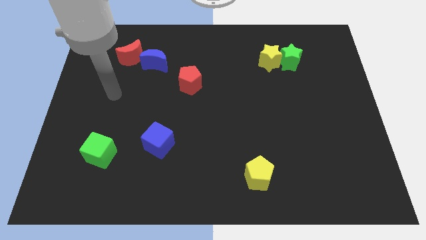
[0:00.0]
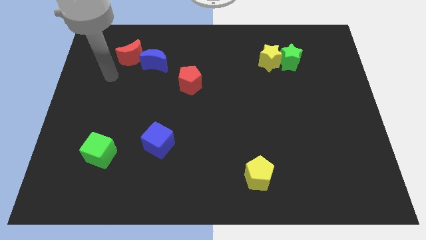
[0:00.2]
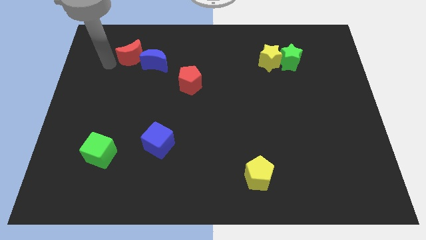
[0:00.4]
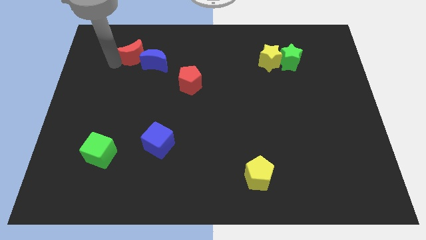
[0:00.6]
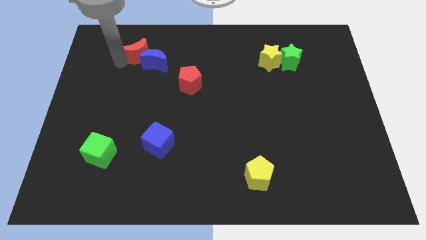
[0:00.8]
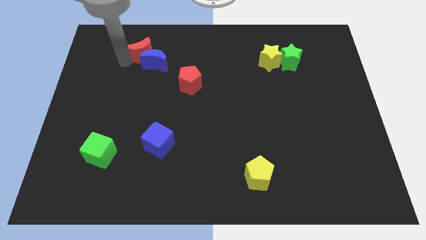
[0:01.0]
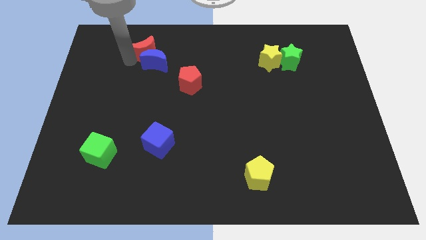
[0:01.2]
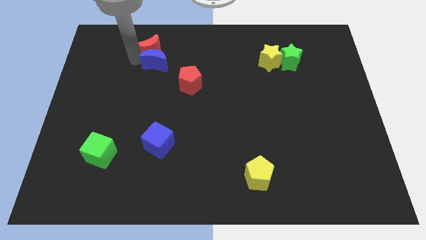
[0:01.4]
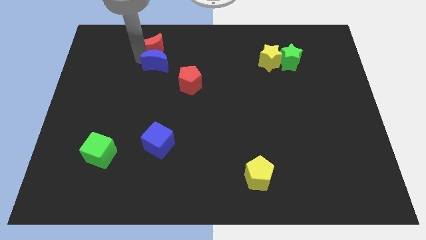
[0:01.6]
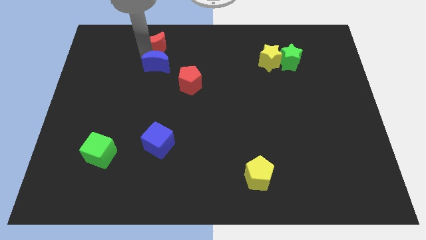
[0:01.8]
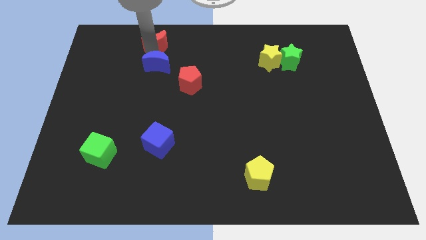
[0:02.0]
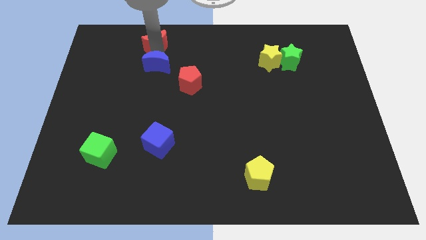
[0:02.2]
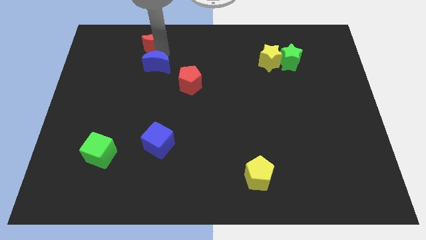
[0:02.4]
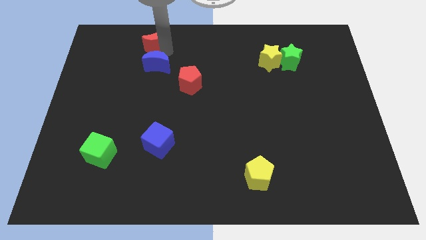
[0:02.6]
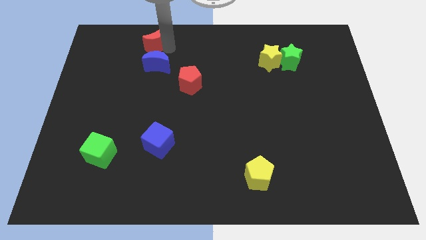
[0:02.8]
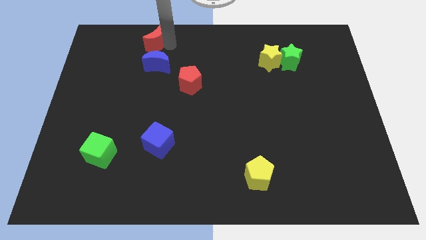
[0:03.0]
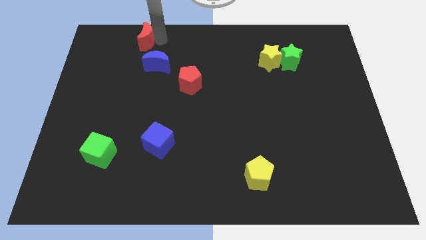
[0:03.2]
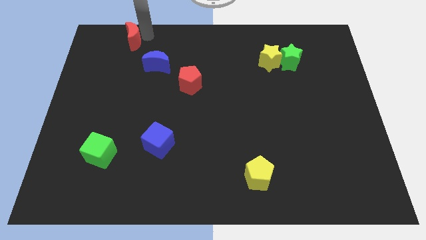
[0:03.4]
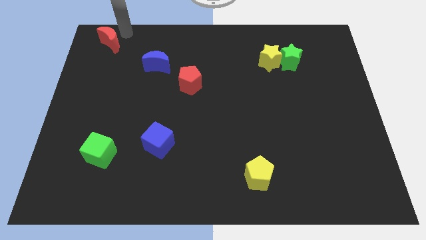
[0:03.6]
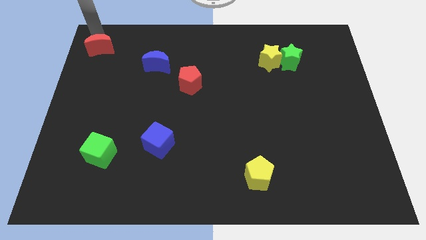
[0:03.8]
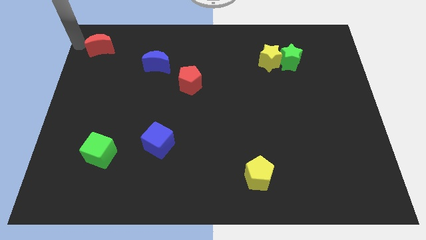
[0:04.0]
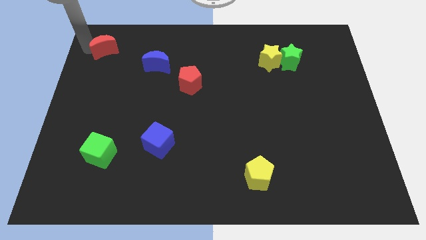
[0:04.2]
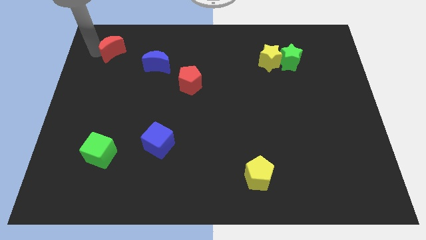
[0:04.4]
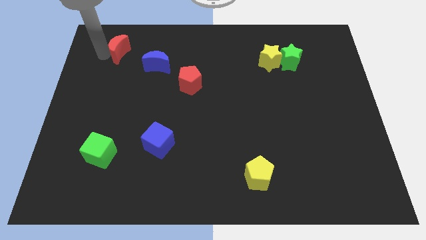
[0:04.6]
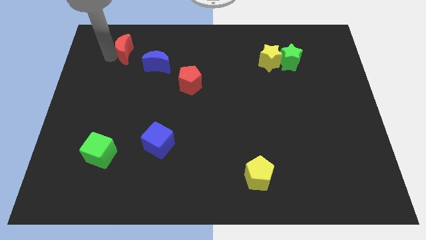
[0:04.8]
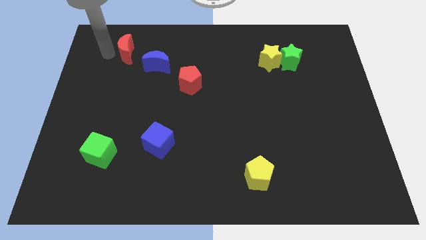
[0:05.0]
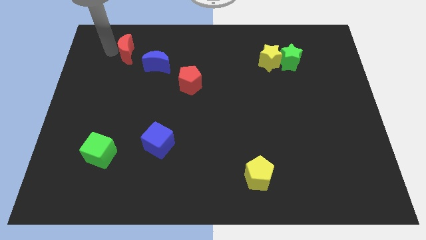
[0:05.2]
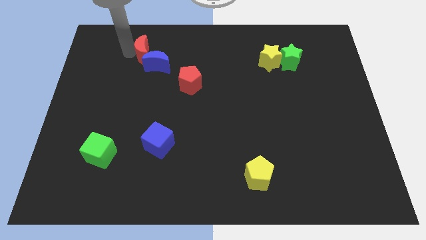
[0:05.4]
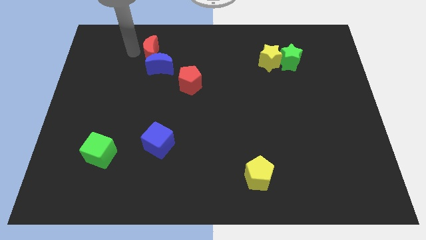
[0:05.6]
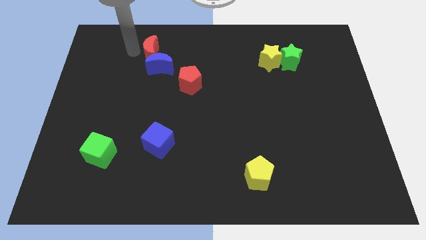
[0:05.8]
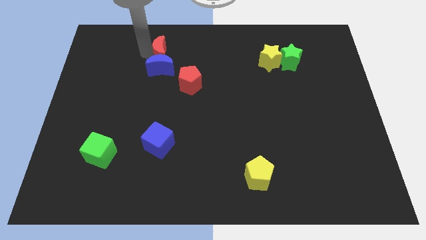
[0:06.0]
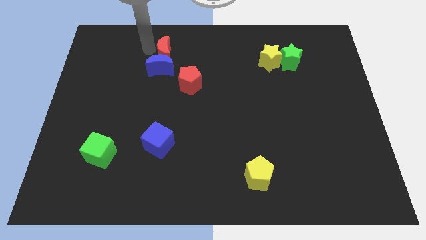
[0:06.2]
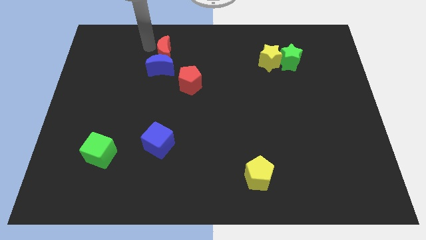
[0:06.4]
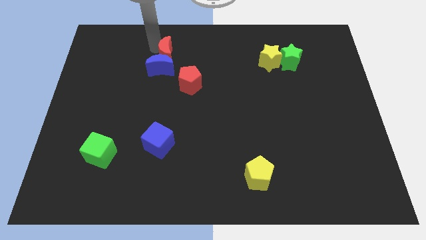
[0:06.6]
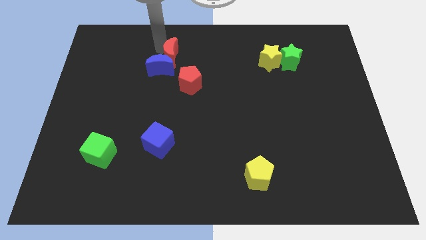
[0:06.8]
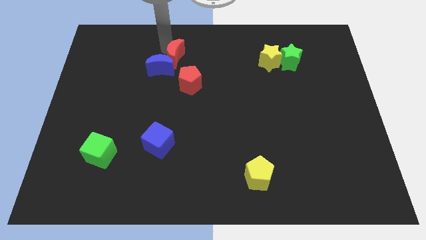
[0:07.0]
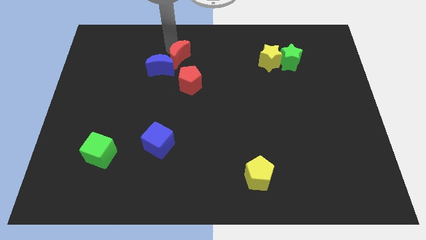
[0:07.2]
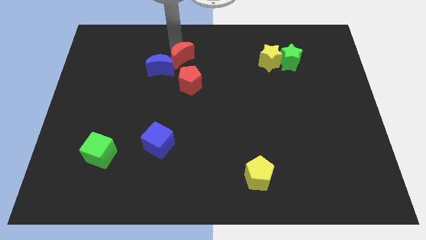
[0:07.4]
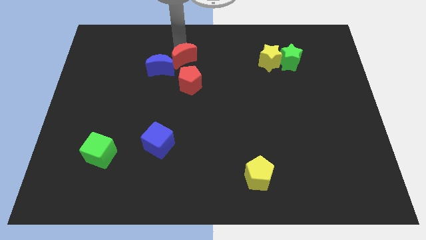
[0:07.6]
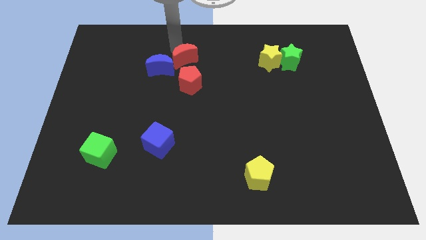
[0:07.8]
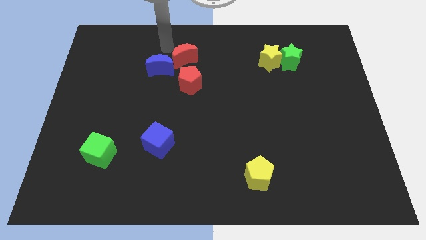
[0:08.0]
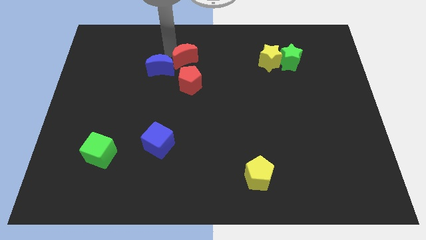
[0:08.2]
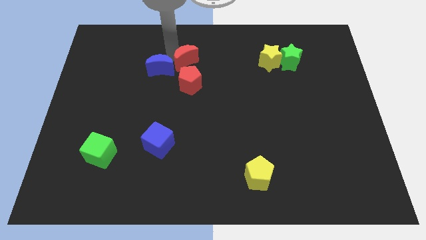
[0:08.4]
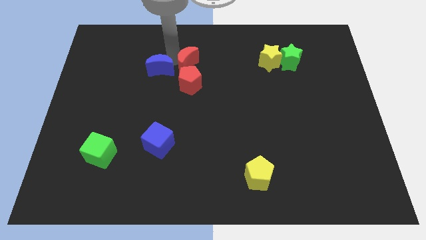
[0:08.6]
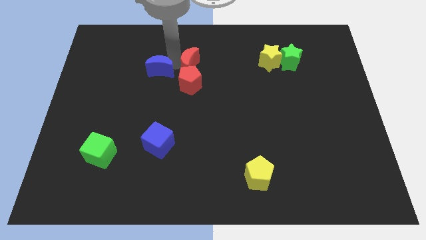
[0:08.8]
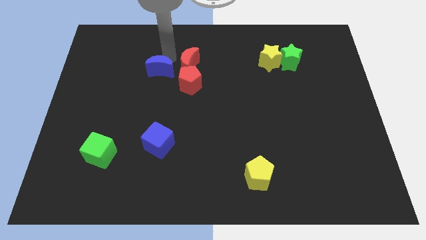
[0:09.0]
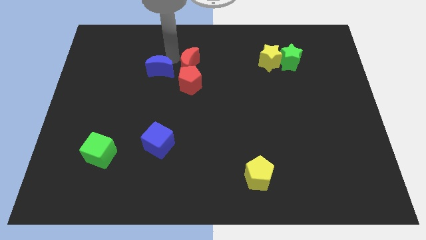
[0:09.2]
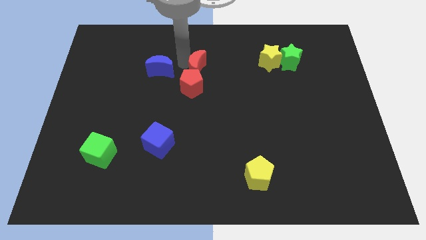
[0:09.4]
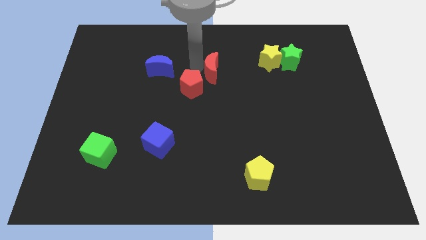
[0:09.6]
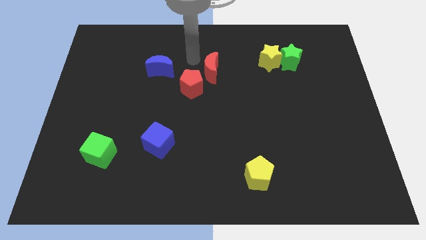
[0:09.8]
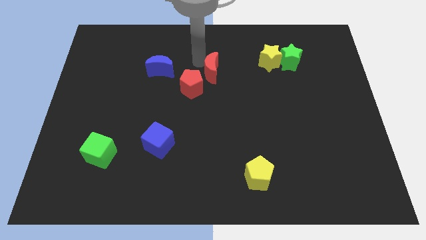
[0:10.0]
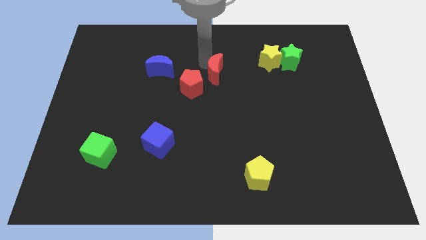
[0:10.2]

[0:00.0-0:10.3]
move the red moon just right of the red pentagon

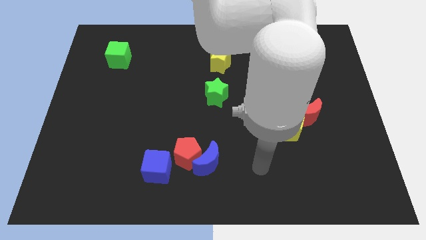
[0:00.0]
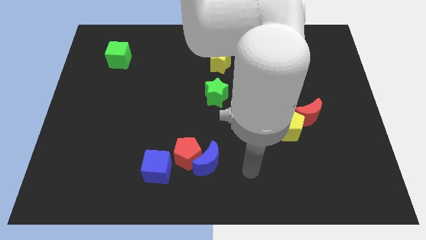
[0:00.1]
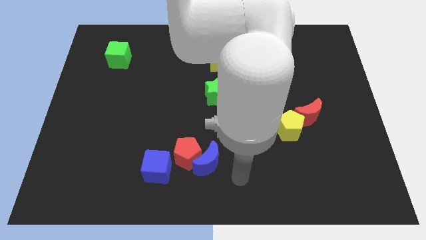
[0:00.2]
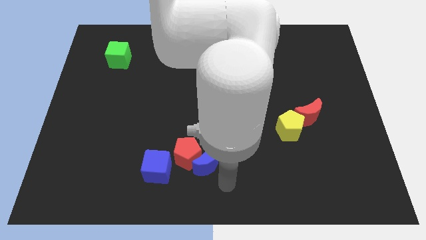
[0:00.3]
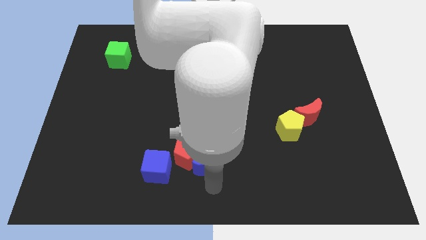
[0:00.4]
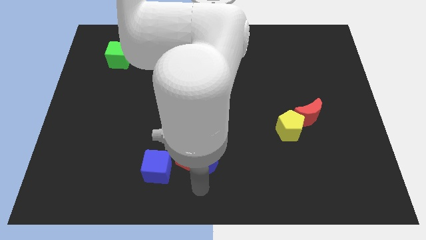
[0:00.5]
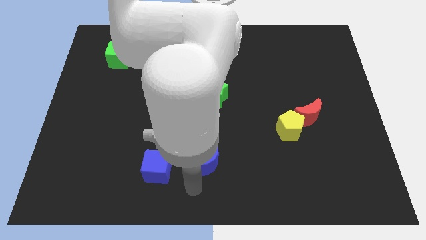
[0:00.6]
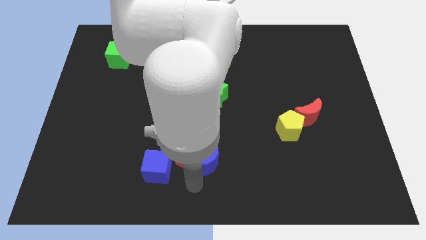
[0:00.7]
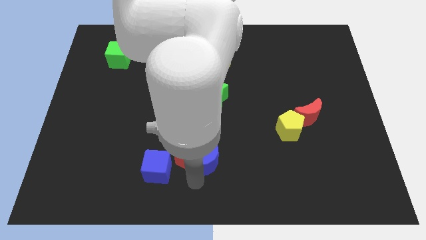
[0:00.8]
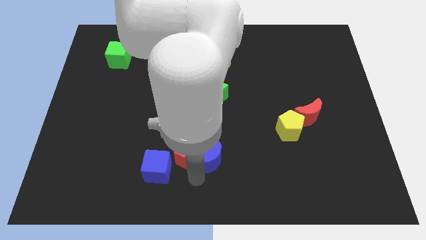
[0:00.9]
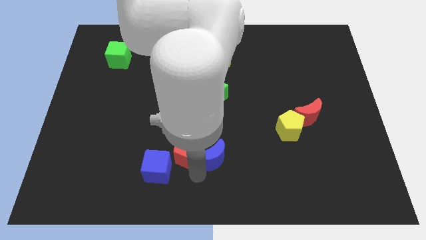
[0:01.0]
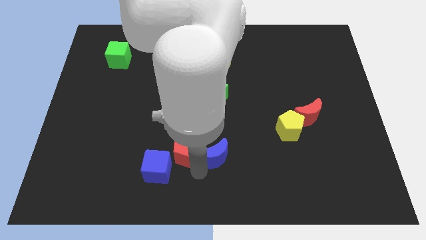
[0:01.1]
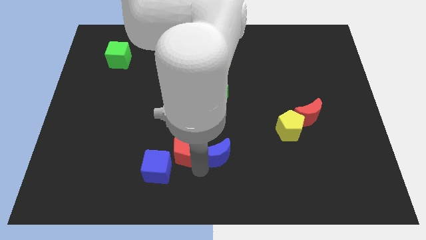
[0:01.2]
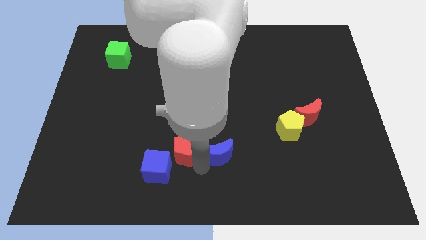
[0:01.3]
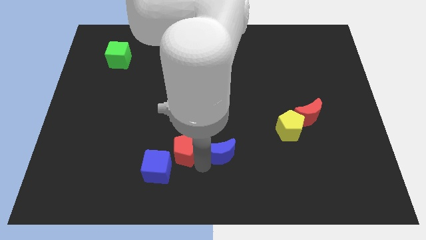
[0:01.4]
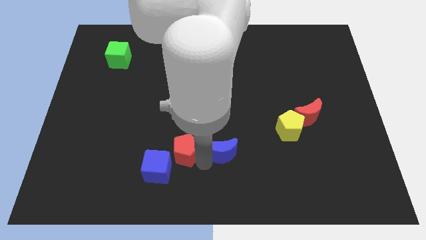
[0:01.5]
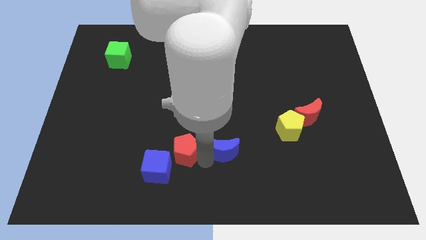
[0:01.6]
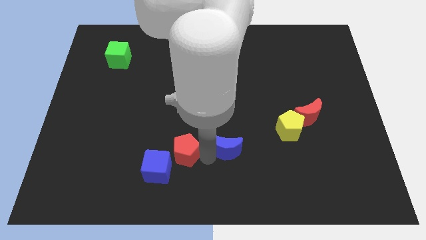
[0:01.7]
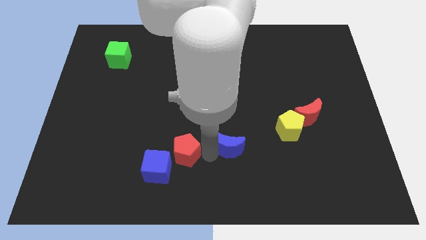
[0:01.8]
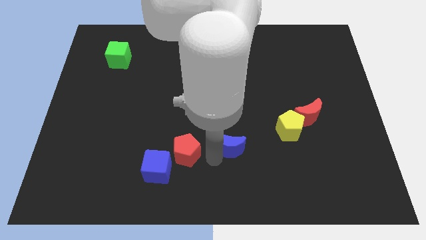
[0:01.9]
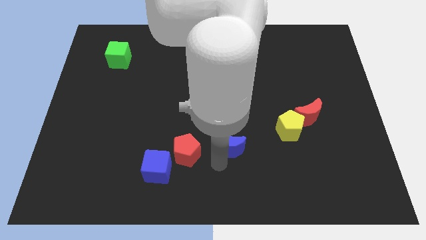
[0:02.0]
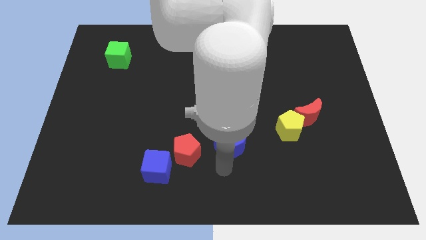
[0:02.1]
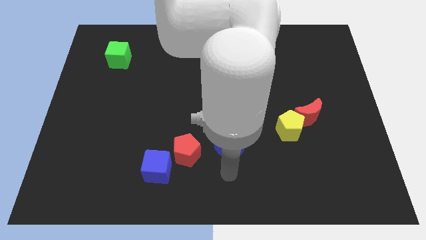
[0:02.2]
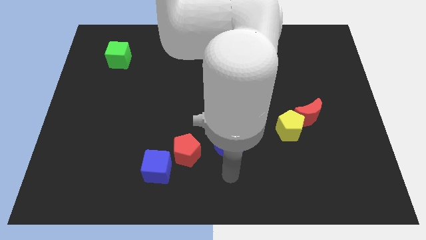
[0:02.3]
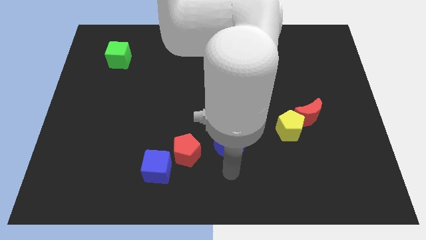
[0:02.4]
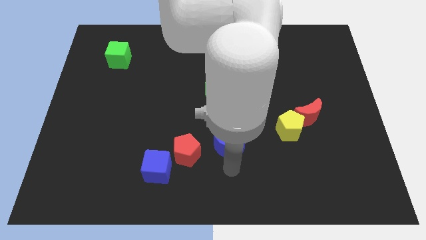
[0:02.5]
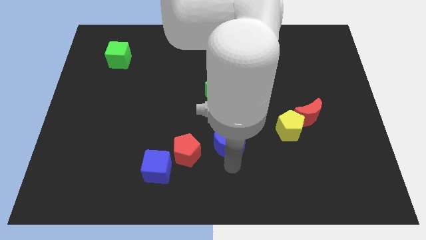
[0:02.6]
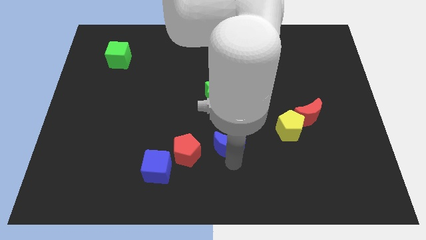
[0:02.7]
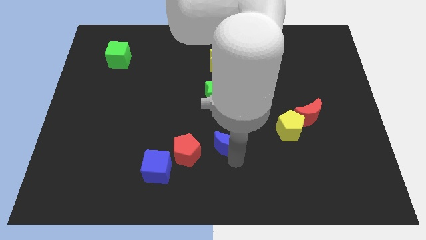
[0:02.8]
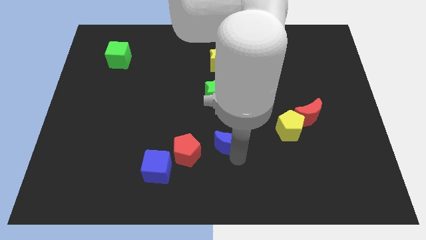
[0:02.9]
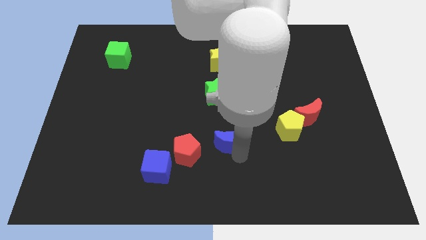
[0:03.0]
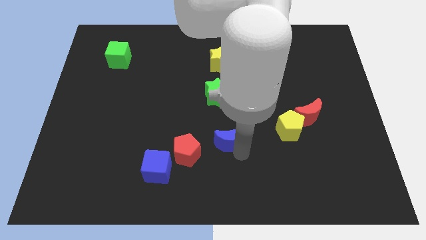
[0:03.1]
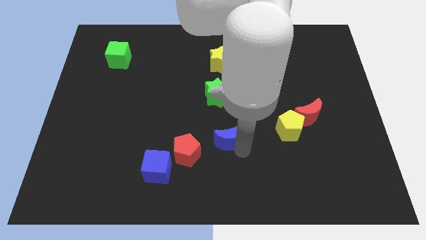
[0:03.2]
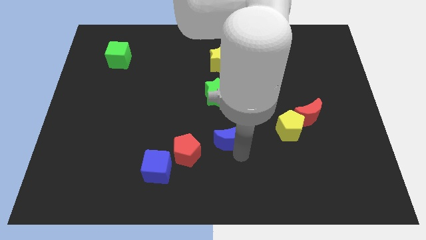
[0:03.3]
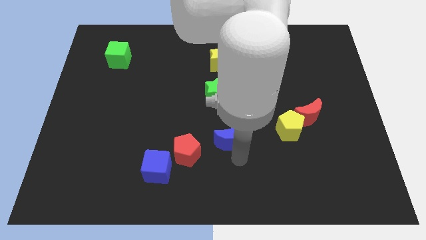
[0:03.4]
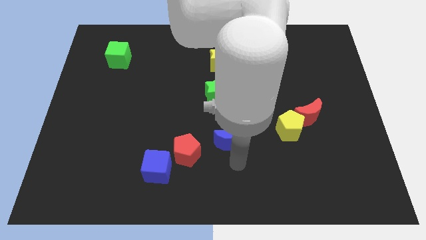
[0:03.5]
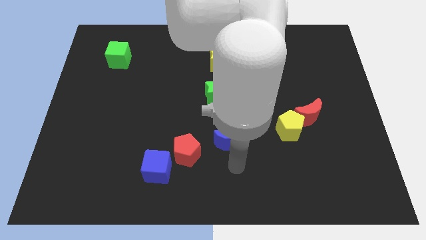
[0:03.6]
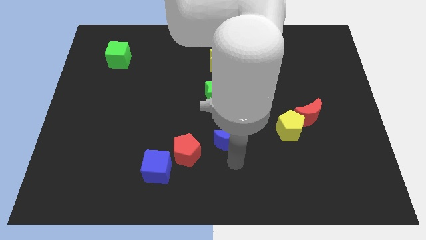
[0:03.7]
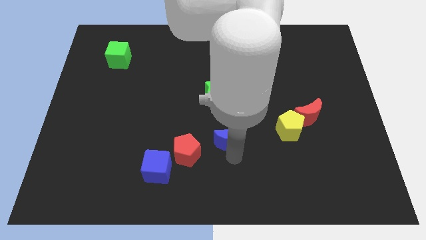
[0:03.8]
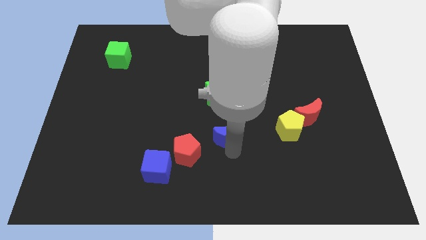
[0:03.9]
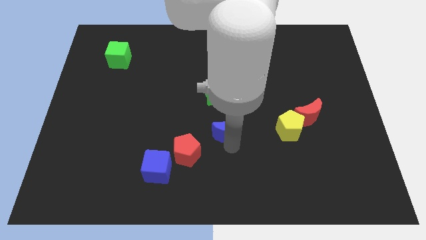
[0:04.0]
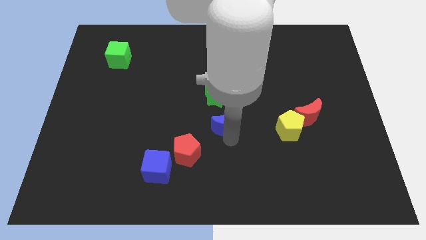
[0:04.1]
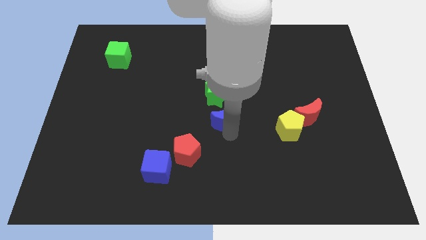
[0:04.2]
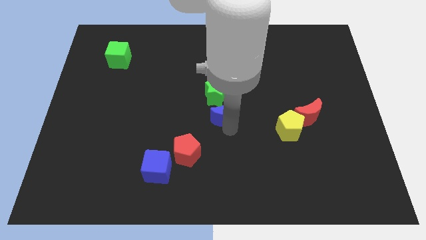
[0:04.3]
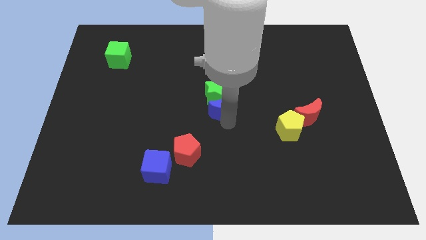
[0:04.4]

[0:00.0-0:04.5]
slide the blue moon below the yellow star
